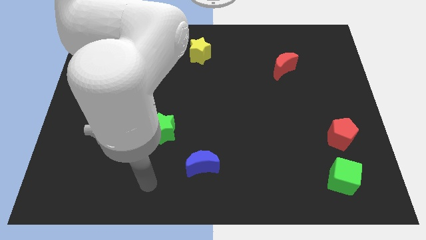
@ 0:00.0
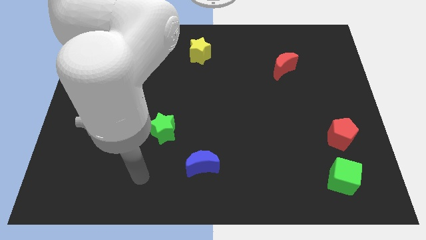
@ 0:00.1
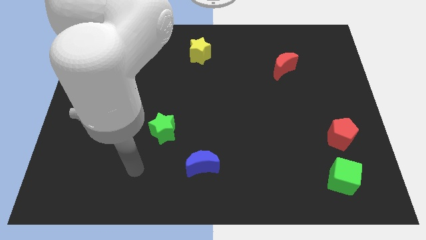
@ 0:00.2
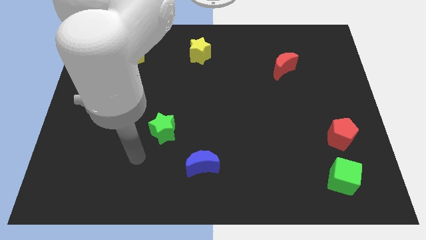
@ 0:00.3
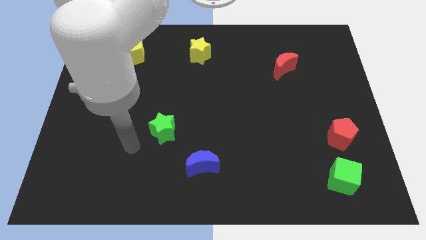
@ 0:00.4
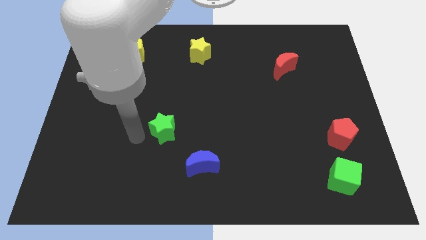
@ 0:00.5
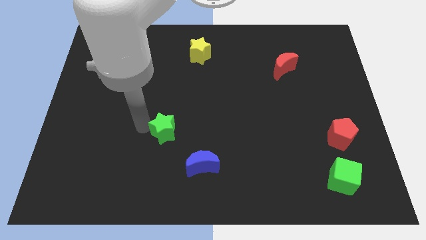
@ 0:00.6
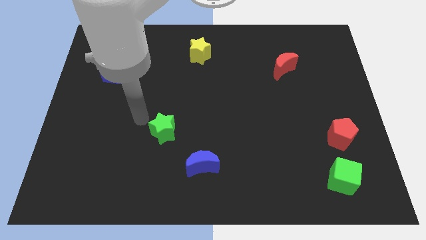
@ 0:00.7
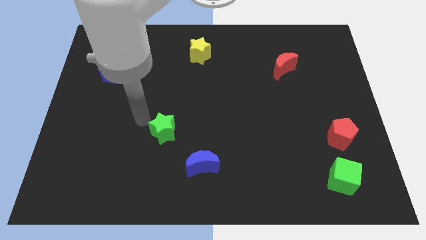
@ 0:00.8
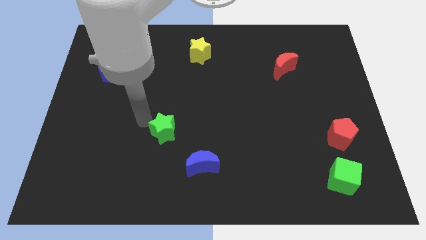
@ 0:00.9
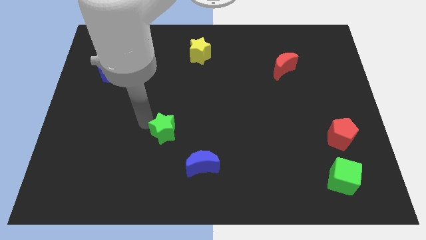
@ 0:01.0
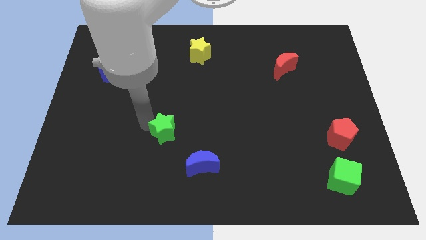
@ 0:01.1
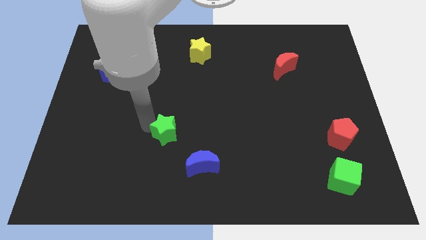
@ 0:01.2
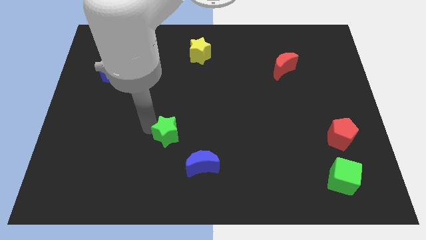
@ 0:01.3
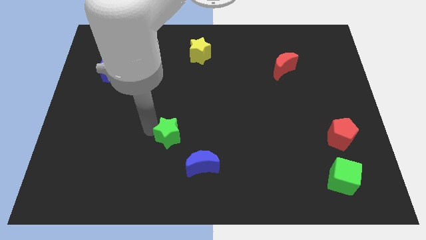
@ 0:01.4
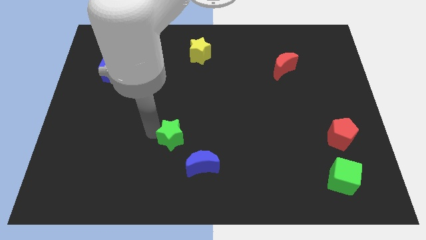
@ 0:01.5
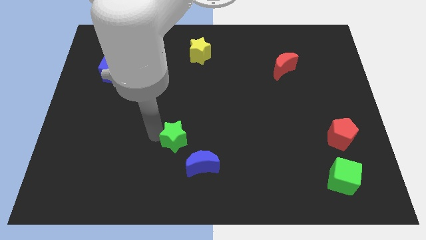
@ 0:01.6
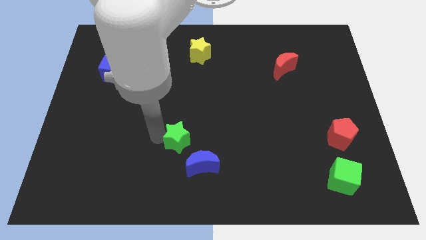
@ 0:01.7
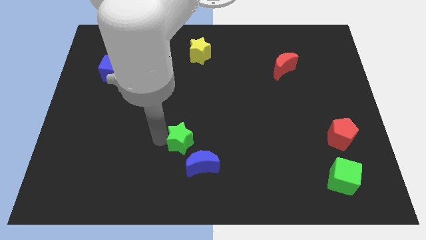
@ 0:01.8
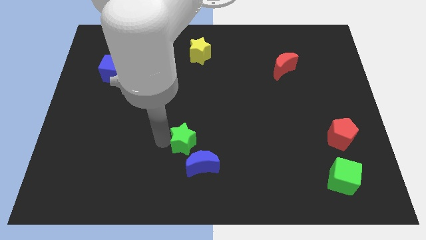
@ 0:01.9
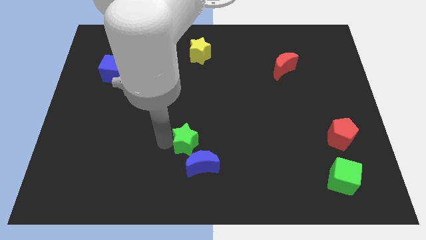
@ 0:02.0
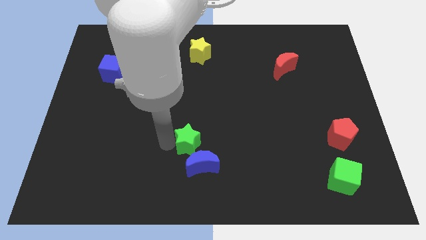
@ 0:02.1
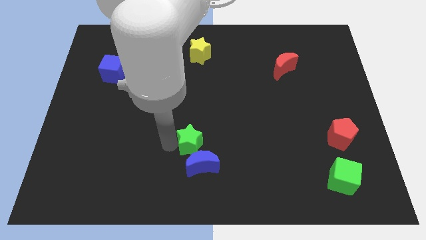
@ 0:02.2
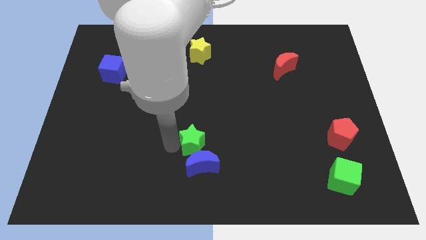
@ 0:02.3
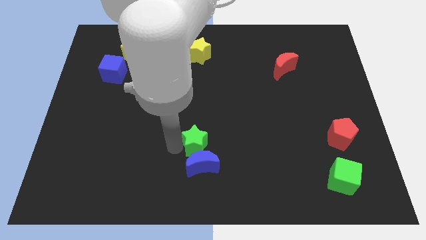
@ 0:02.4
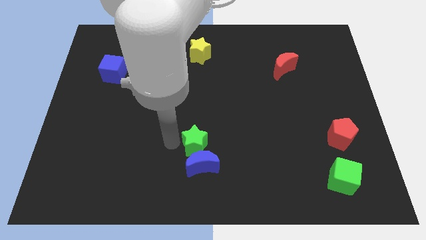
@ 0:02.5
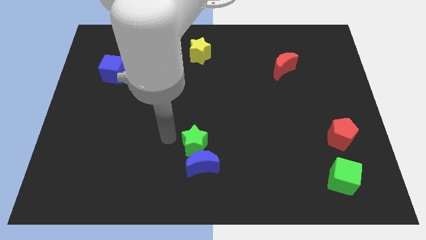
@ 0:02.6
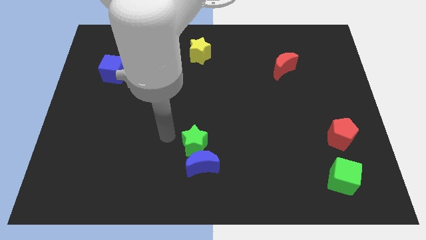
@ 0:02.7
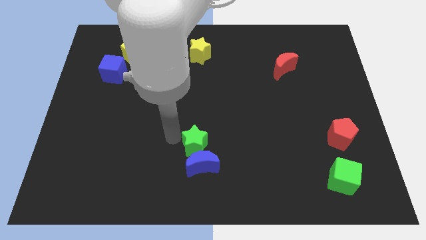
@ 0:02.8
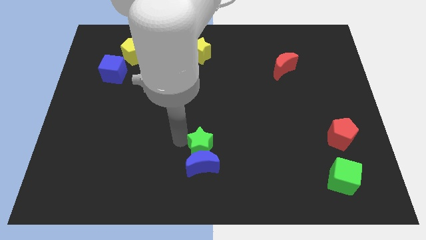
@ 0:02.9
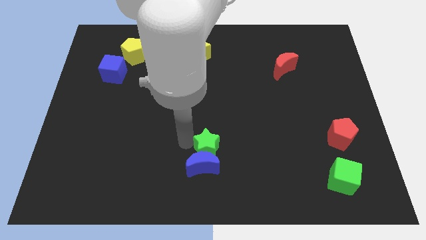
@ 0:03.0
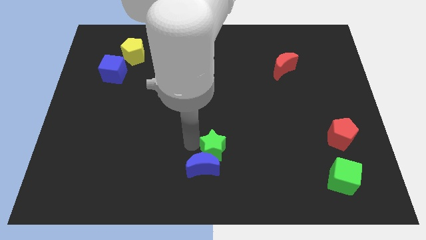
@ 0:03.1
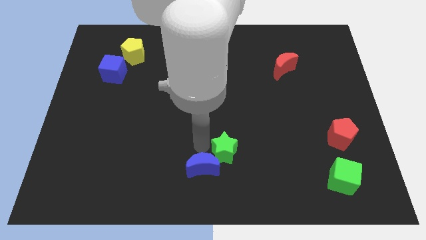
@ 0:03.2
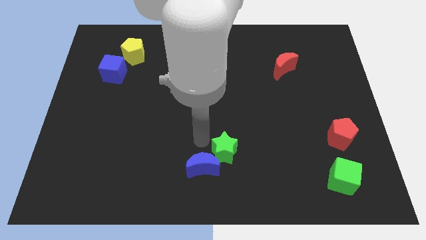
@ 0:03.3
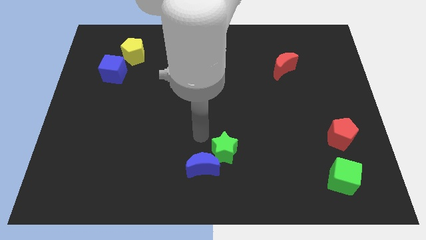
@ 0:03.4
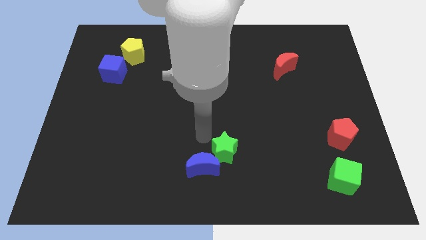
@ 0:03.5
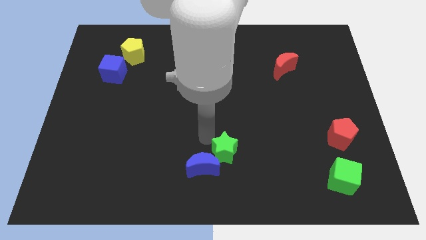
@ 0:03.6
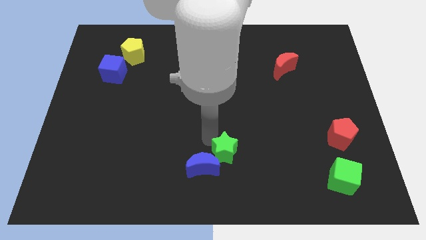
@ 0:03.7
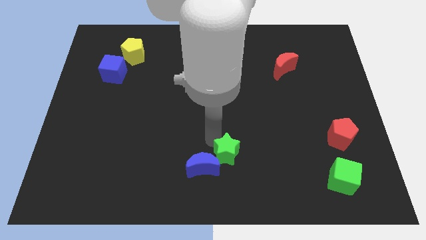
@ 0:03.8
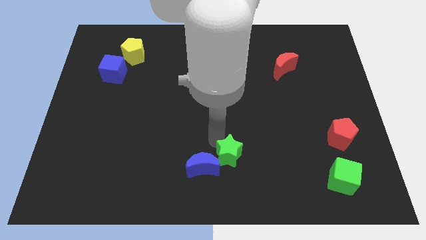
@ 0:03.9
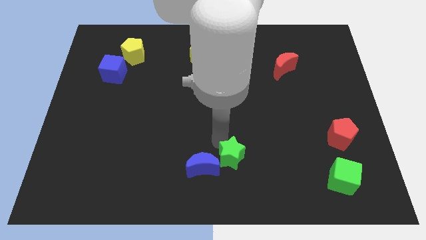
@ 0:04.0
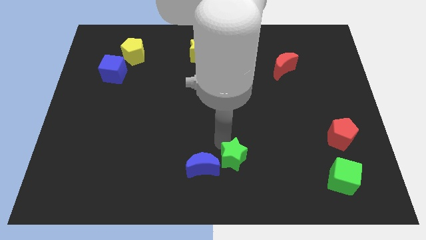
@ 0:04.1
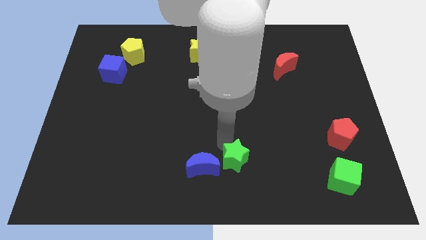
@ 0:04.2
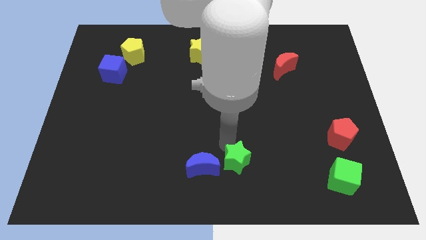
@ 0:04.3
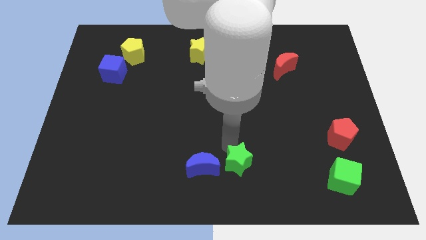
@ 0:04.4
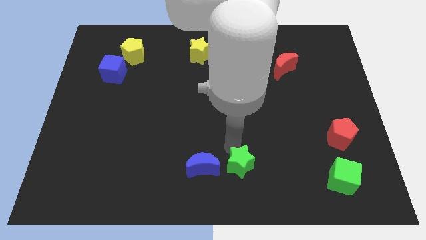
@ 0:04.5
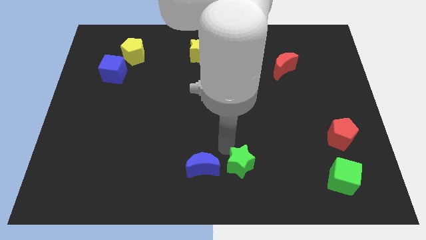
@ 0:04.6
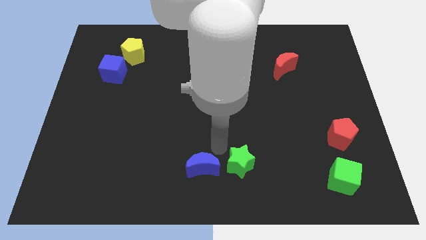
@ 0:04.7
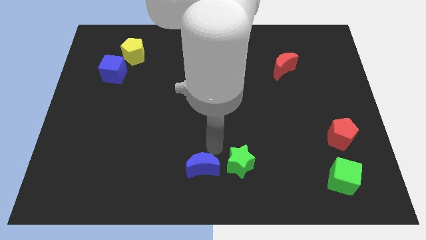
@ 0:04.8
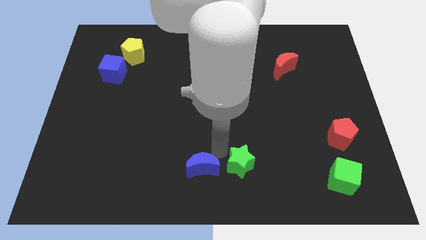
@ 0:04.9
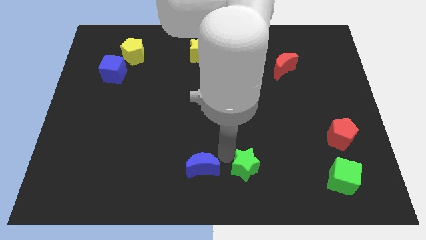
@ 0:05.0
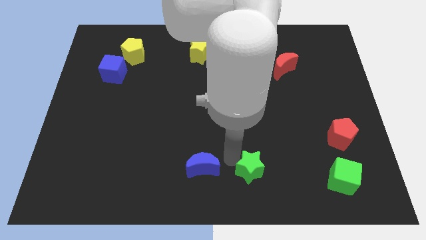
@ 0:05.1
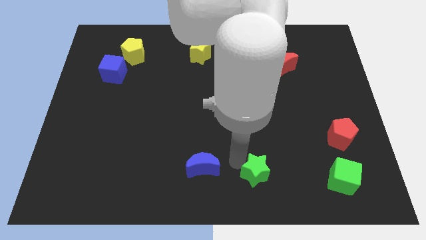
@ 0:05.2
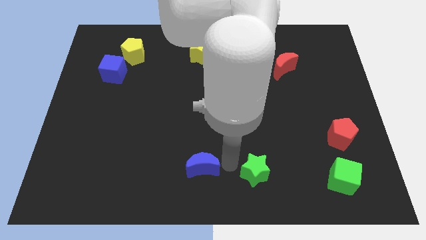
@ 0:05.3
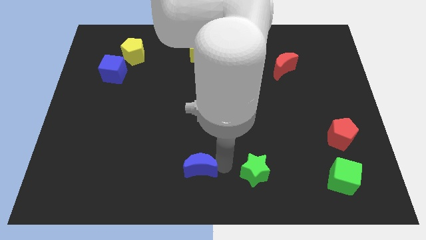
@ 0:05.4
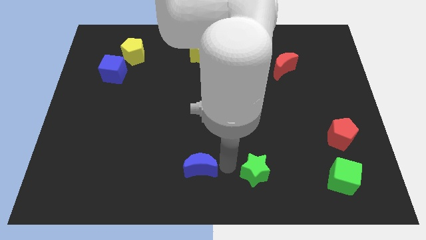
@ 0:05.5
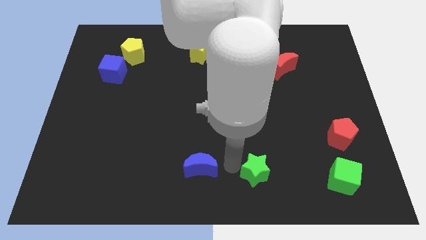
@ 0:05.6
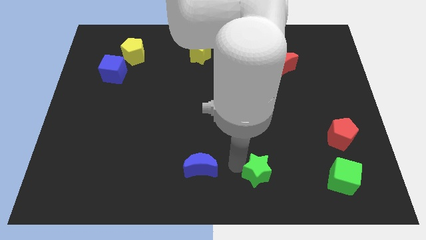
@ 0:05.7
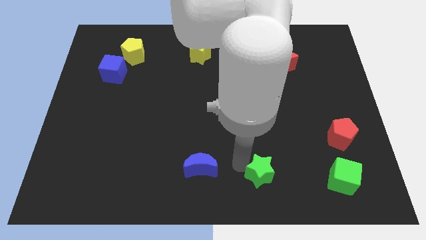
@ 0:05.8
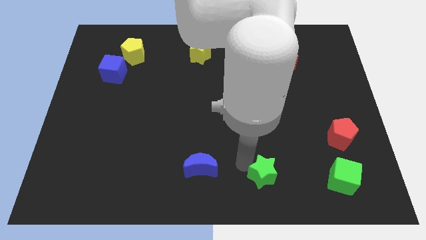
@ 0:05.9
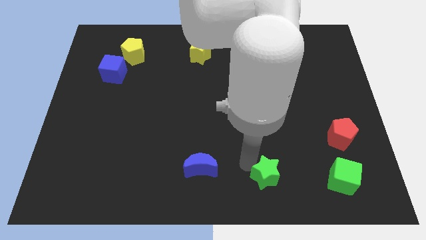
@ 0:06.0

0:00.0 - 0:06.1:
move the green star to the left side of the green cube

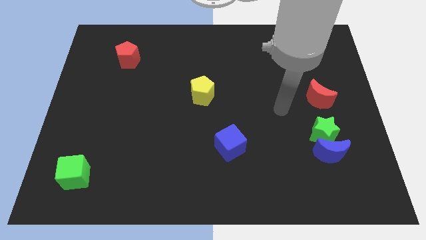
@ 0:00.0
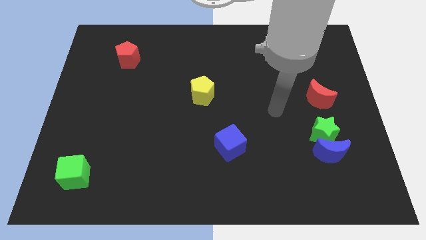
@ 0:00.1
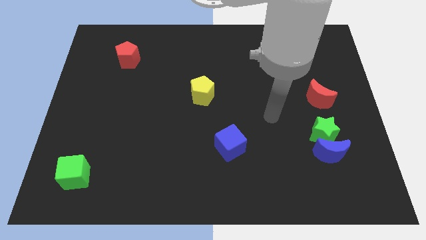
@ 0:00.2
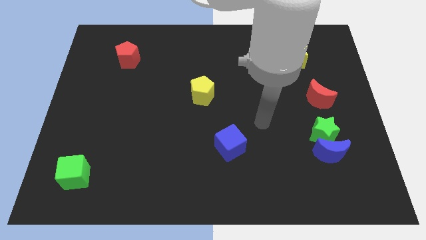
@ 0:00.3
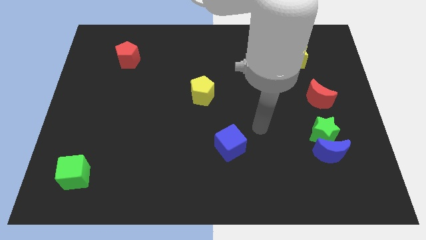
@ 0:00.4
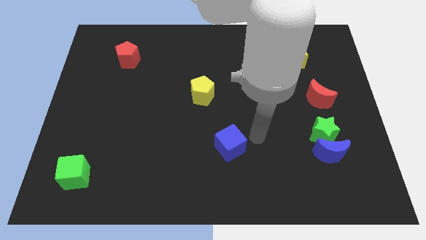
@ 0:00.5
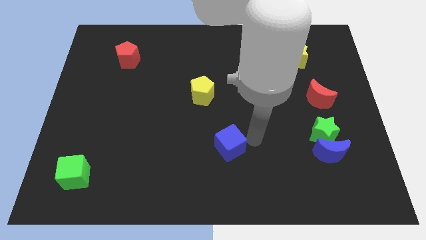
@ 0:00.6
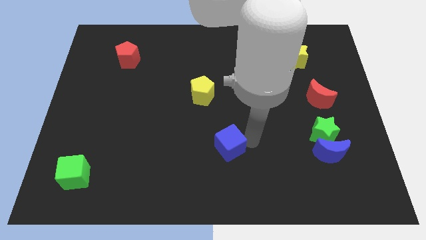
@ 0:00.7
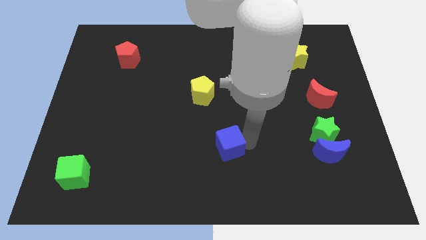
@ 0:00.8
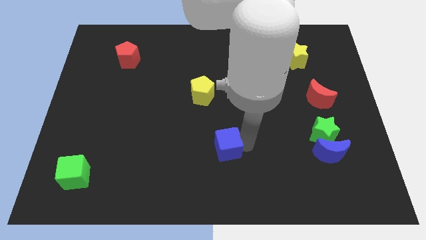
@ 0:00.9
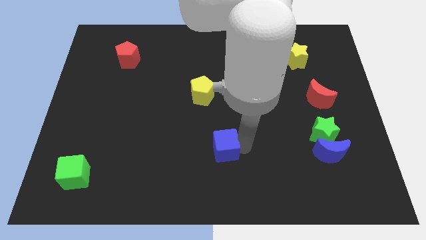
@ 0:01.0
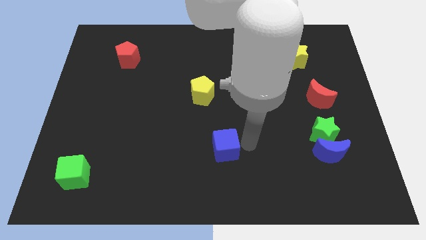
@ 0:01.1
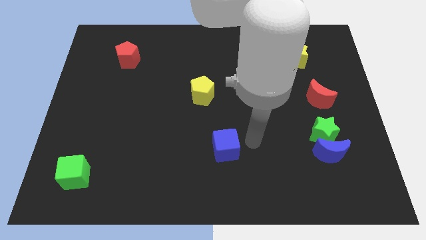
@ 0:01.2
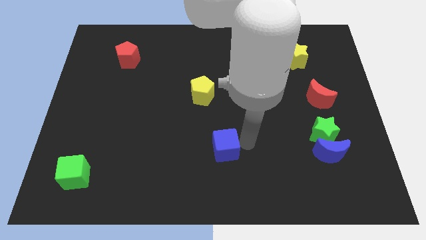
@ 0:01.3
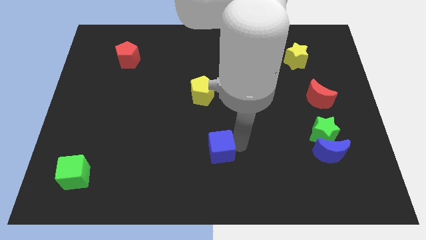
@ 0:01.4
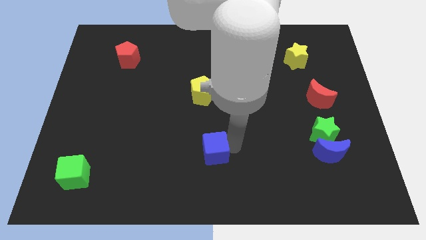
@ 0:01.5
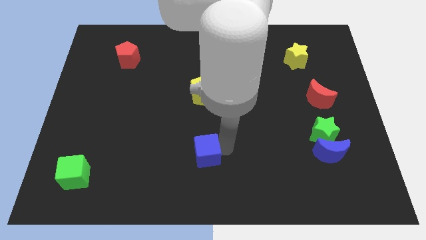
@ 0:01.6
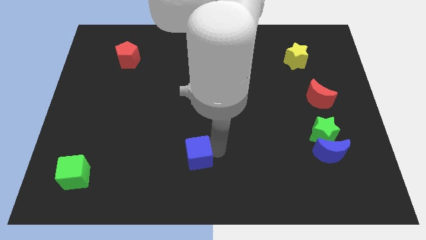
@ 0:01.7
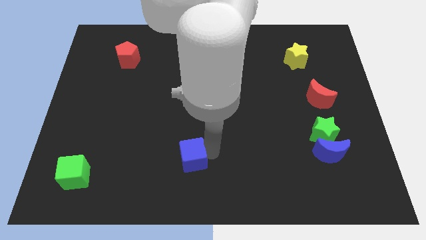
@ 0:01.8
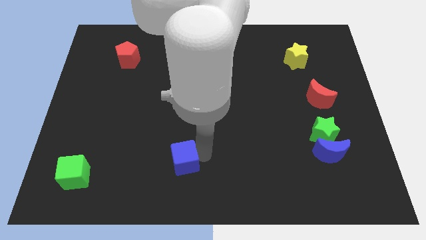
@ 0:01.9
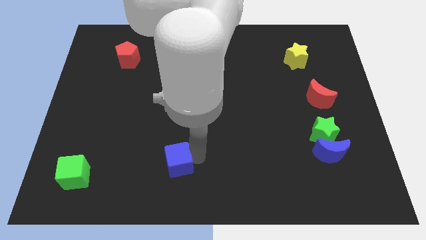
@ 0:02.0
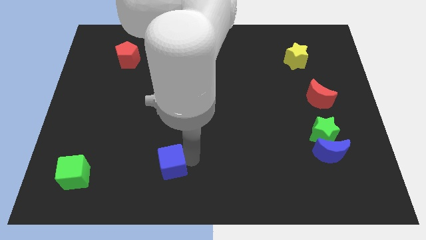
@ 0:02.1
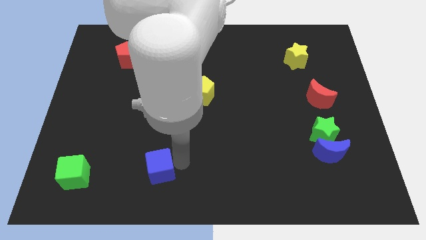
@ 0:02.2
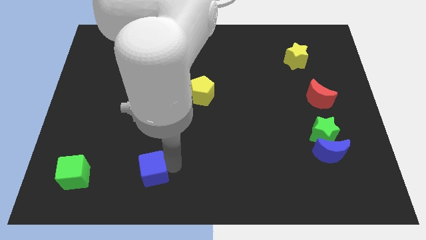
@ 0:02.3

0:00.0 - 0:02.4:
move the blue cube right of the green cube
